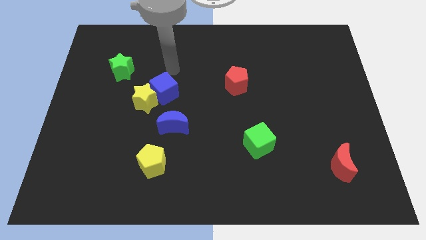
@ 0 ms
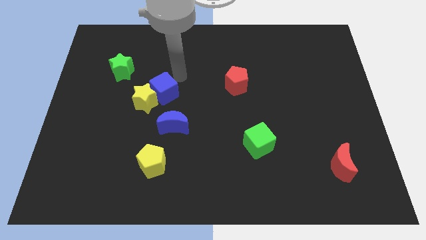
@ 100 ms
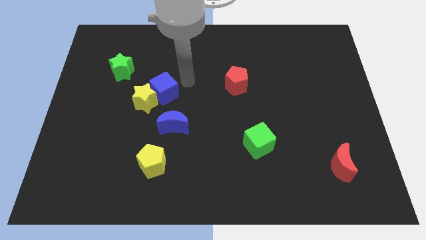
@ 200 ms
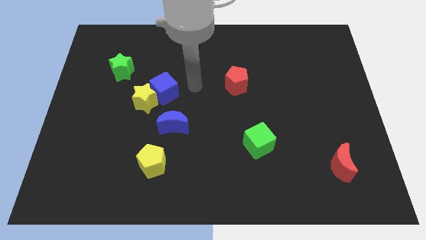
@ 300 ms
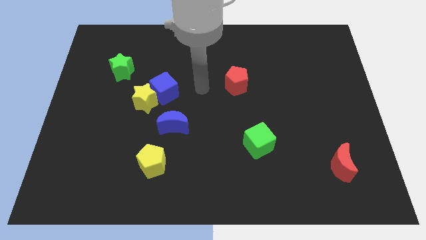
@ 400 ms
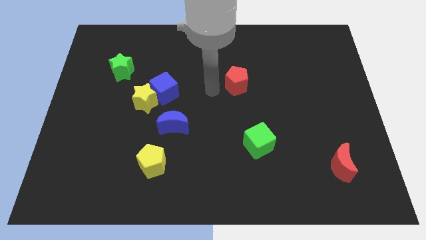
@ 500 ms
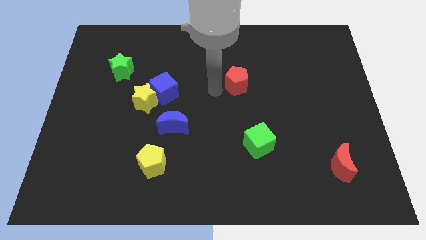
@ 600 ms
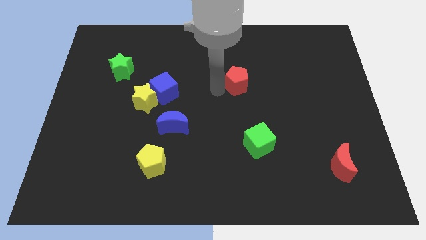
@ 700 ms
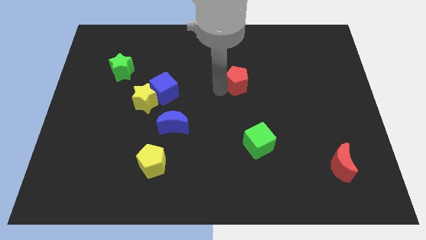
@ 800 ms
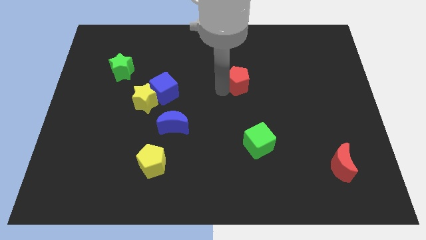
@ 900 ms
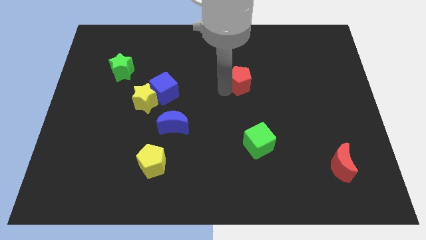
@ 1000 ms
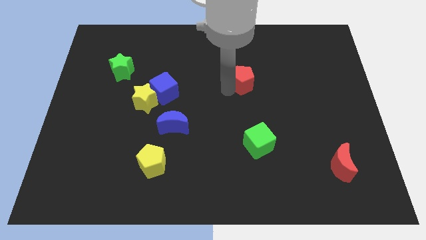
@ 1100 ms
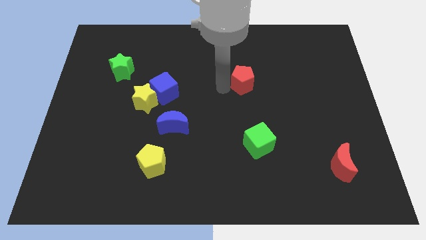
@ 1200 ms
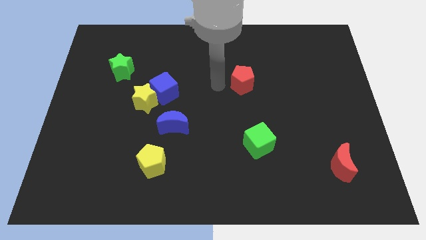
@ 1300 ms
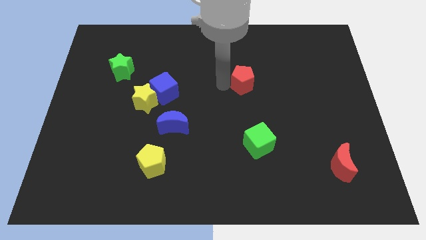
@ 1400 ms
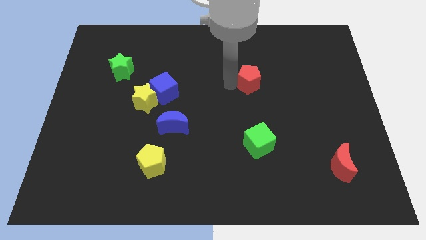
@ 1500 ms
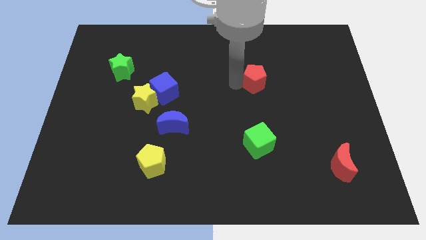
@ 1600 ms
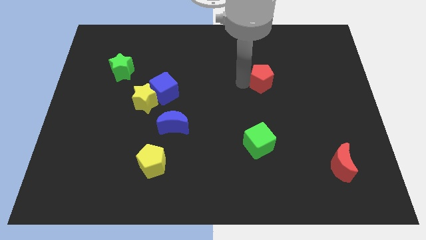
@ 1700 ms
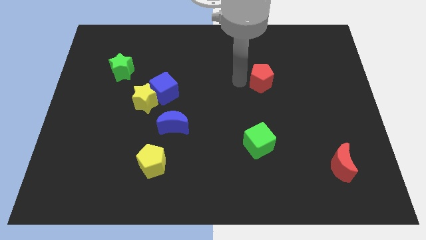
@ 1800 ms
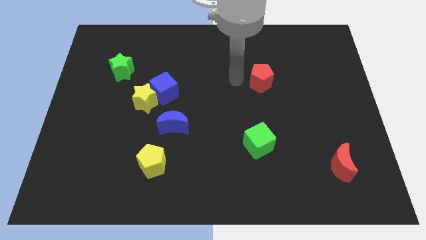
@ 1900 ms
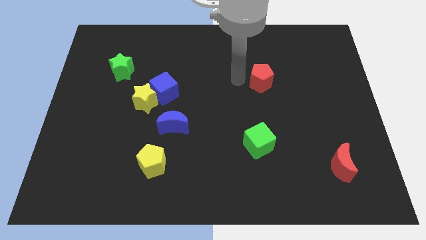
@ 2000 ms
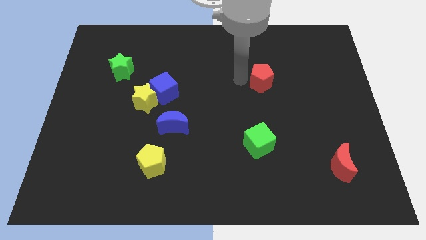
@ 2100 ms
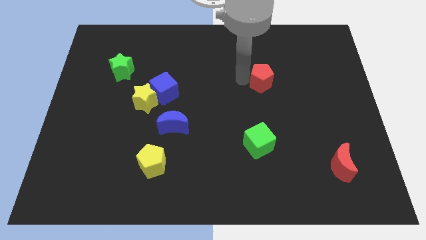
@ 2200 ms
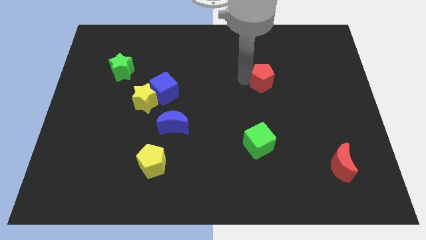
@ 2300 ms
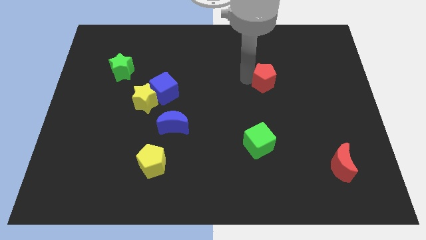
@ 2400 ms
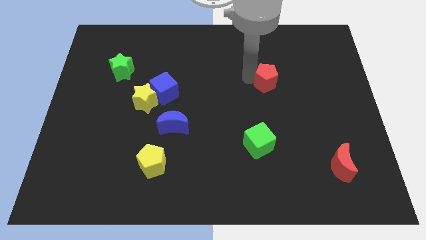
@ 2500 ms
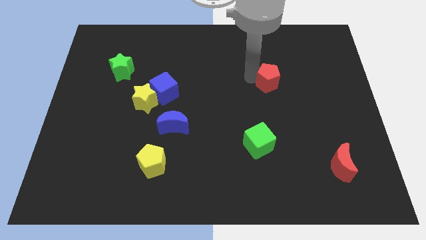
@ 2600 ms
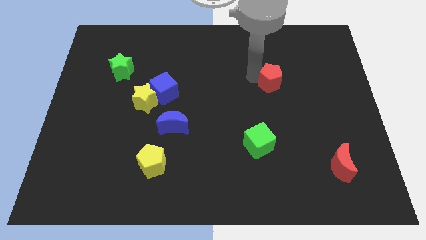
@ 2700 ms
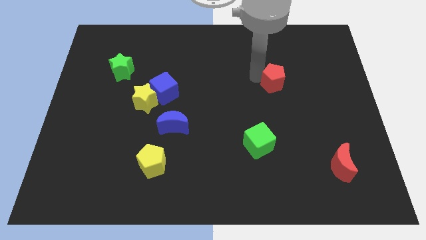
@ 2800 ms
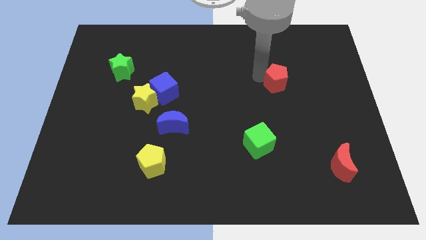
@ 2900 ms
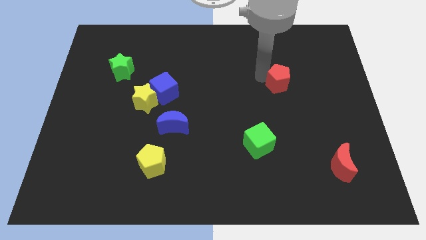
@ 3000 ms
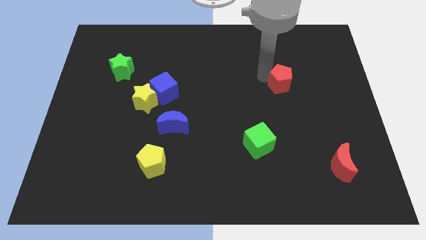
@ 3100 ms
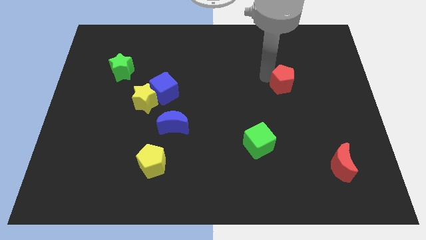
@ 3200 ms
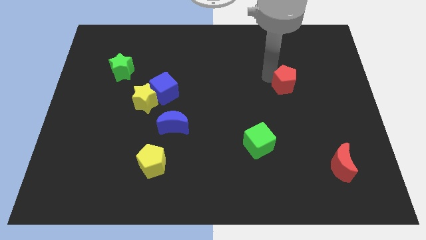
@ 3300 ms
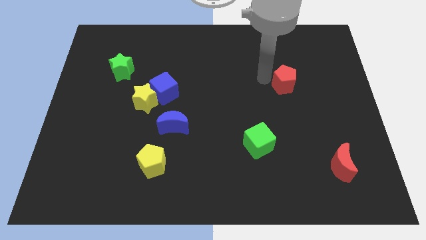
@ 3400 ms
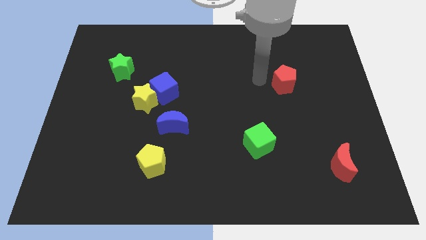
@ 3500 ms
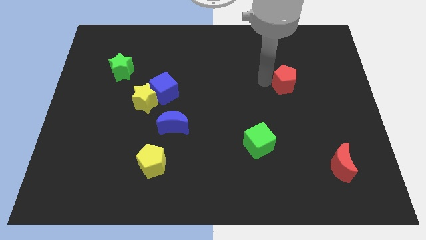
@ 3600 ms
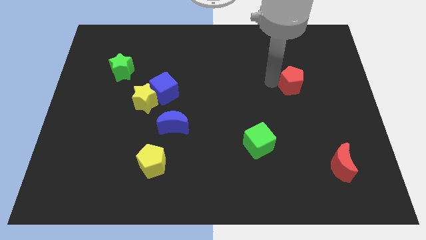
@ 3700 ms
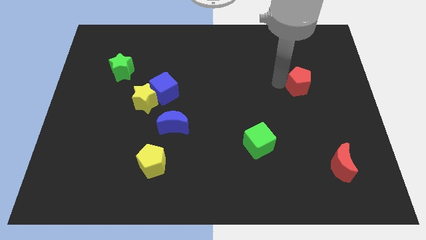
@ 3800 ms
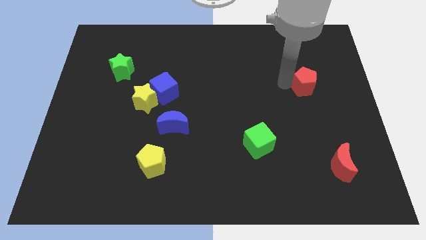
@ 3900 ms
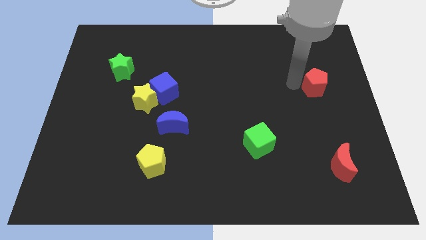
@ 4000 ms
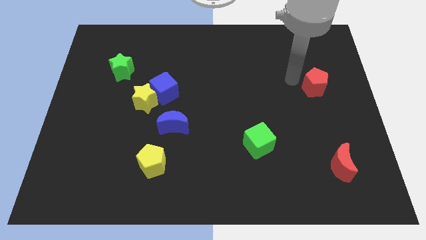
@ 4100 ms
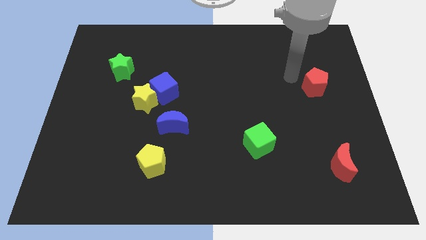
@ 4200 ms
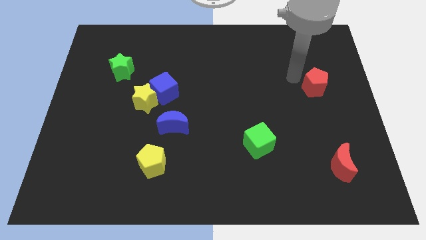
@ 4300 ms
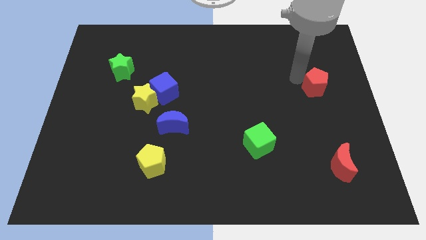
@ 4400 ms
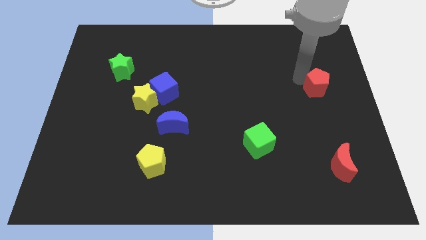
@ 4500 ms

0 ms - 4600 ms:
push the red pentagon to the center right

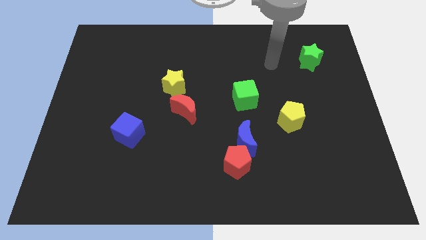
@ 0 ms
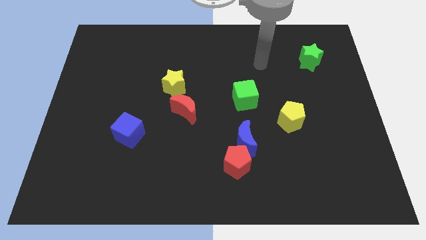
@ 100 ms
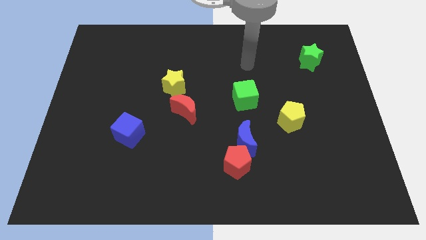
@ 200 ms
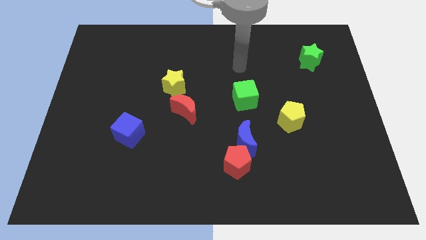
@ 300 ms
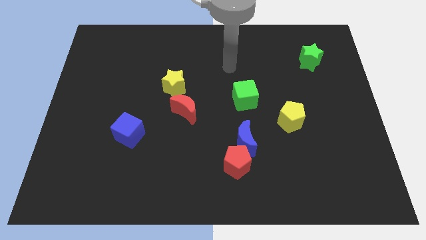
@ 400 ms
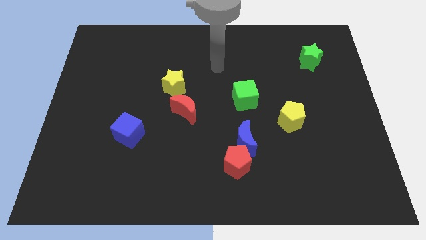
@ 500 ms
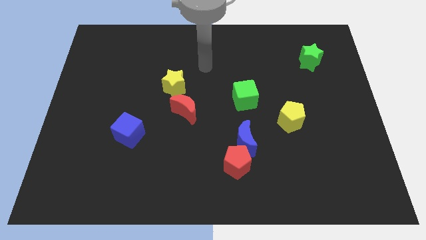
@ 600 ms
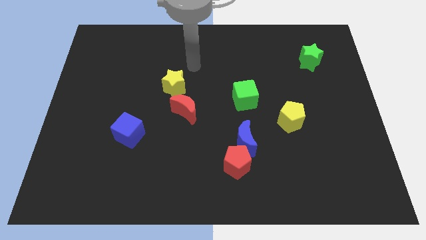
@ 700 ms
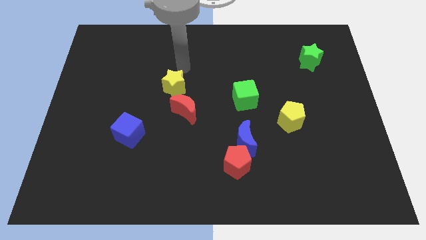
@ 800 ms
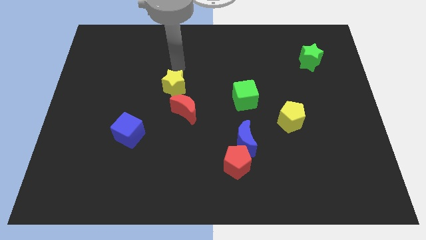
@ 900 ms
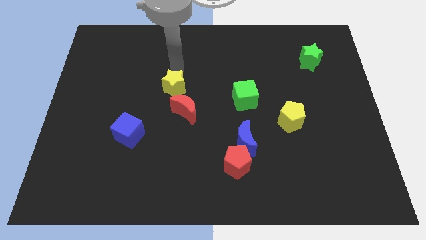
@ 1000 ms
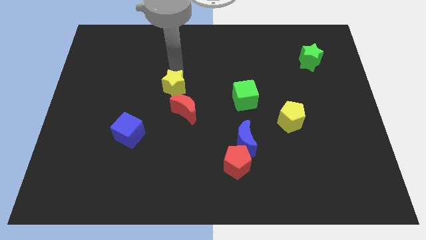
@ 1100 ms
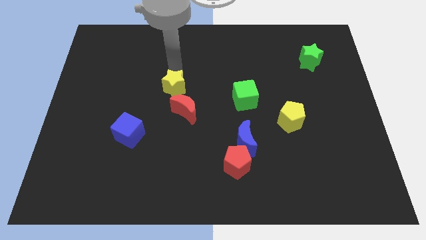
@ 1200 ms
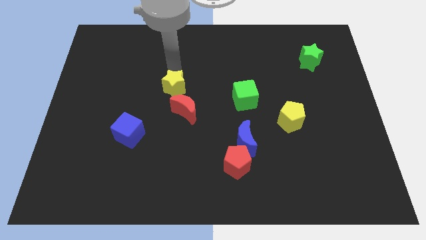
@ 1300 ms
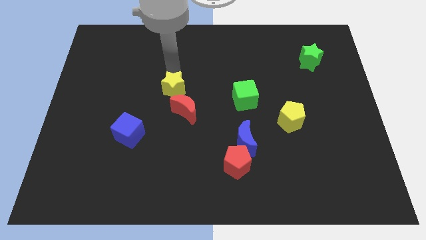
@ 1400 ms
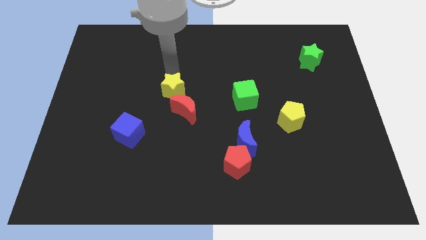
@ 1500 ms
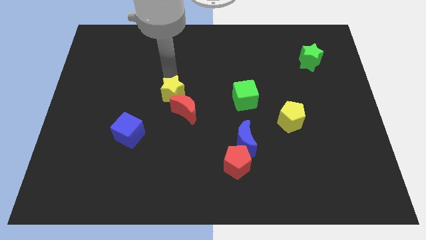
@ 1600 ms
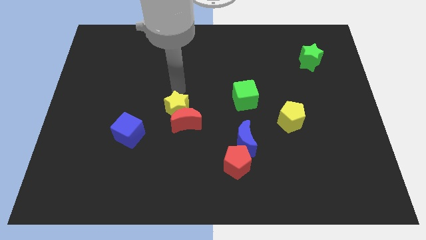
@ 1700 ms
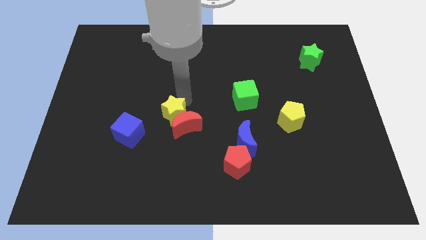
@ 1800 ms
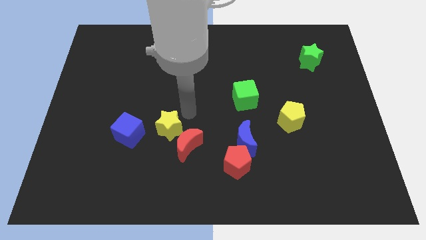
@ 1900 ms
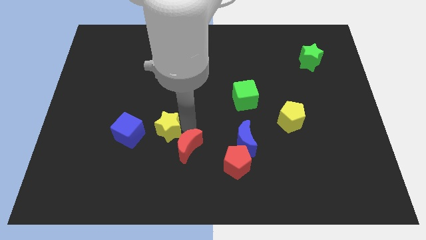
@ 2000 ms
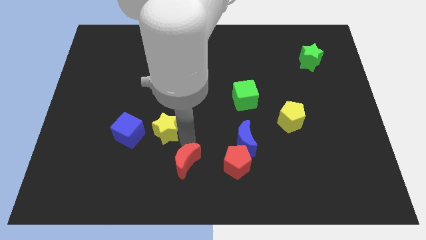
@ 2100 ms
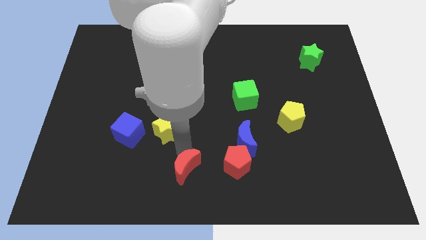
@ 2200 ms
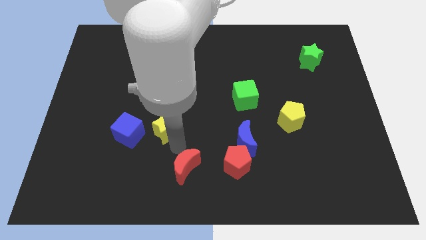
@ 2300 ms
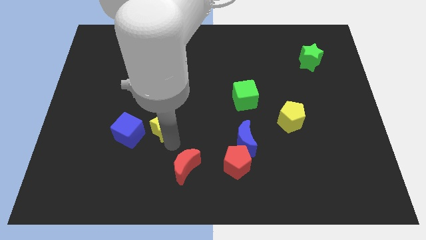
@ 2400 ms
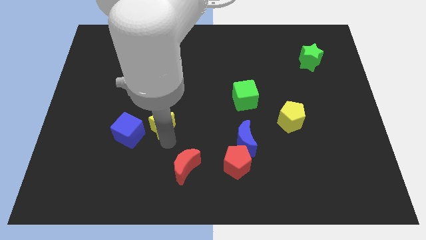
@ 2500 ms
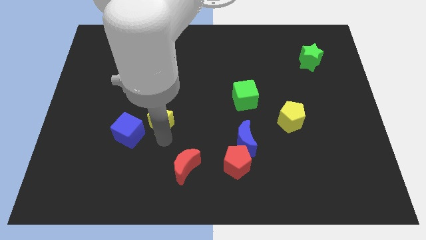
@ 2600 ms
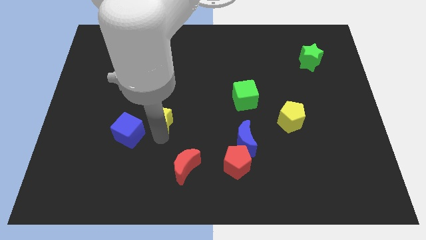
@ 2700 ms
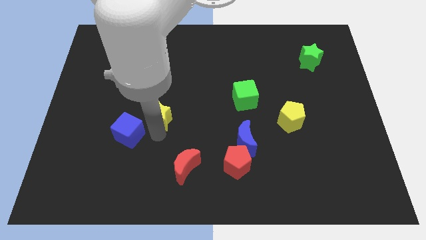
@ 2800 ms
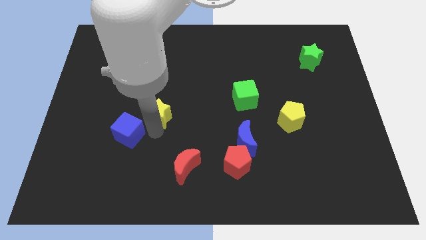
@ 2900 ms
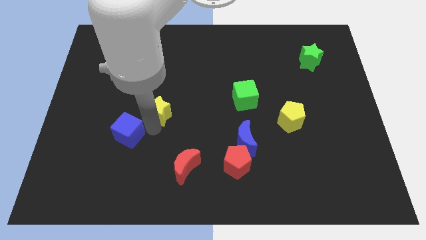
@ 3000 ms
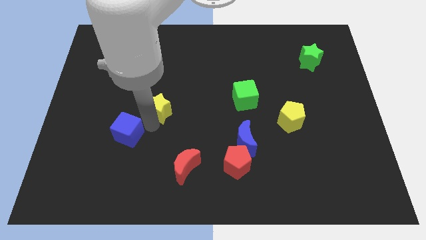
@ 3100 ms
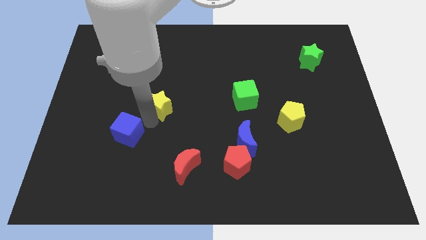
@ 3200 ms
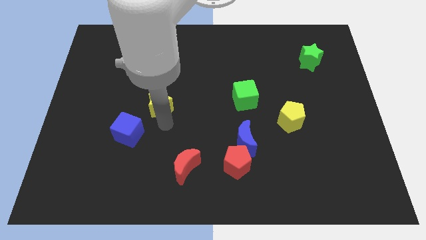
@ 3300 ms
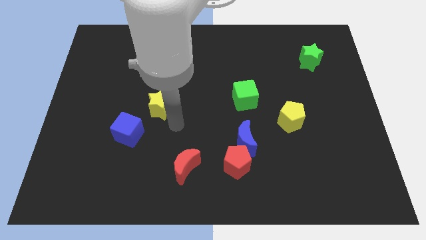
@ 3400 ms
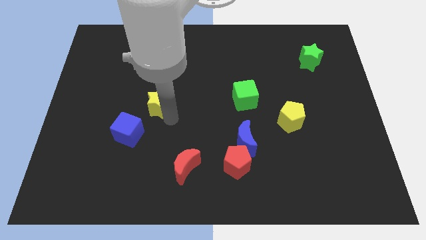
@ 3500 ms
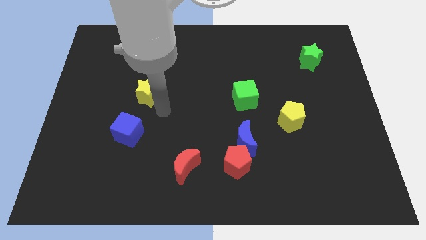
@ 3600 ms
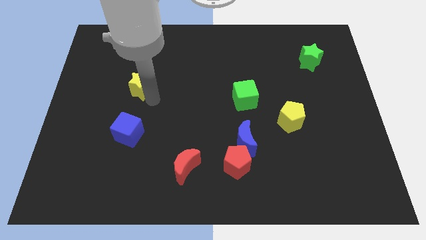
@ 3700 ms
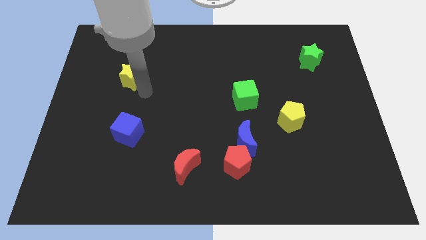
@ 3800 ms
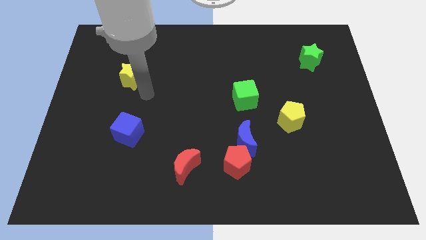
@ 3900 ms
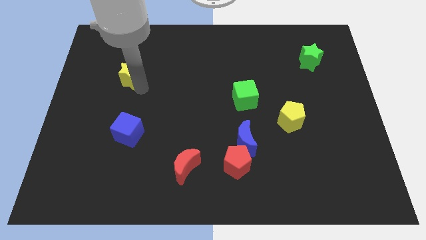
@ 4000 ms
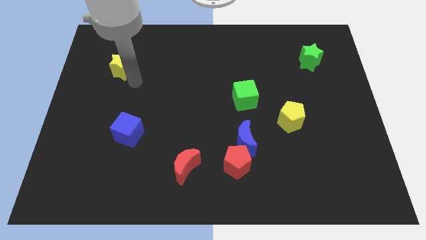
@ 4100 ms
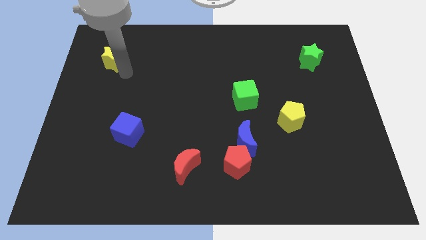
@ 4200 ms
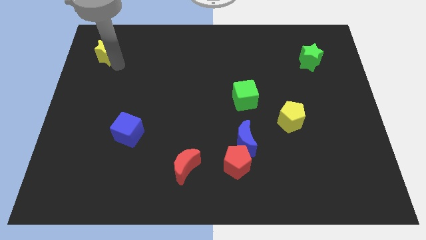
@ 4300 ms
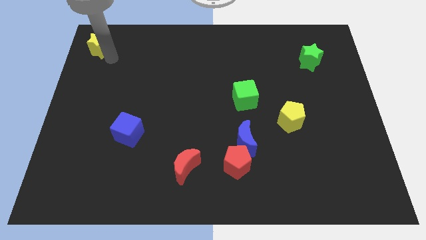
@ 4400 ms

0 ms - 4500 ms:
push the yellow star to the top left corner
